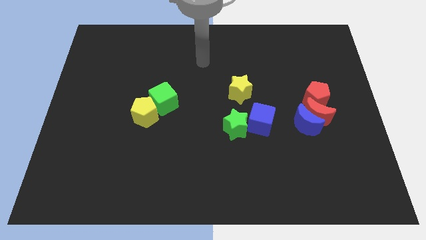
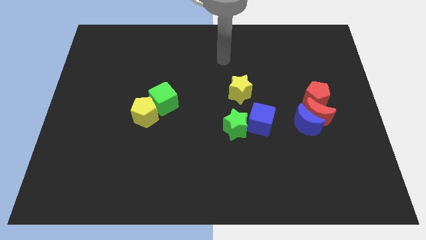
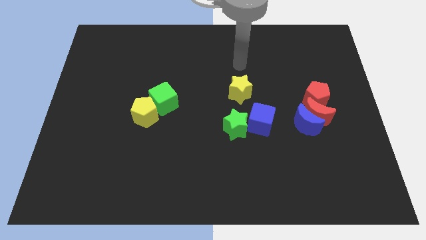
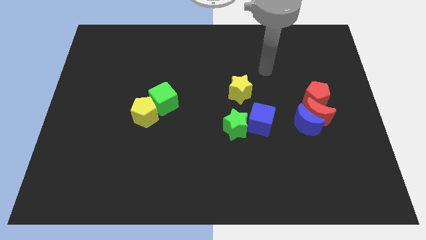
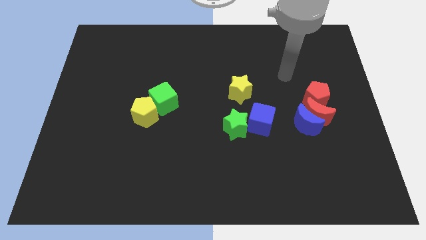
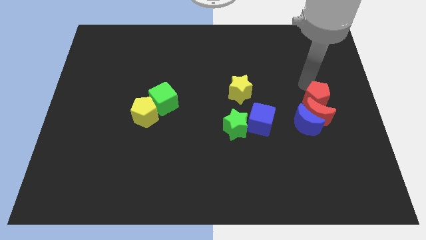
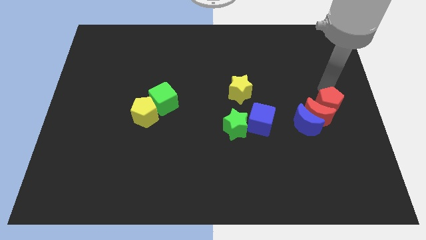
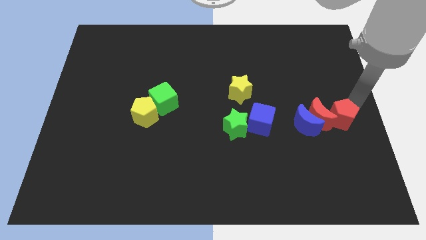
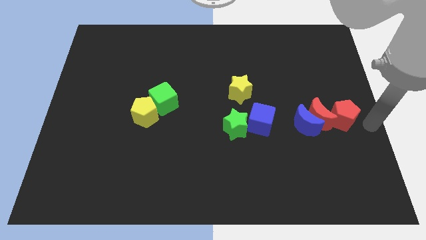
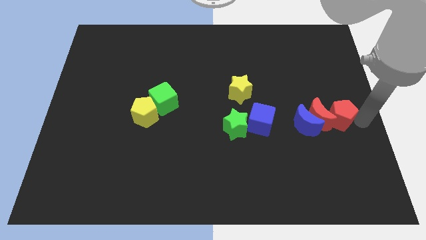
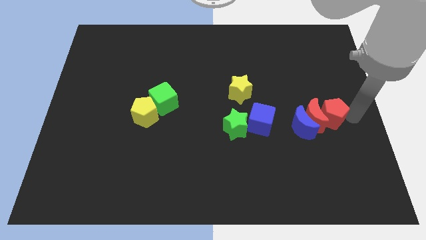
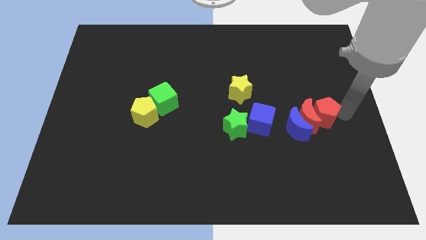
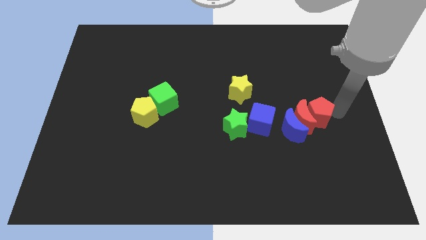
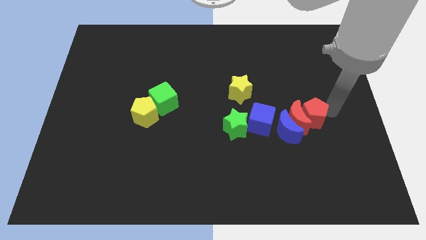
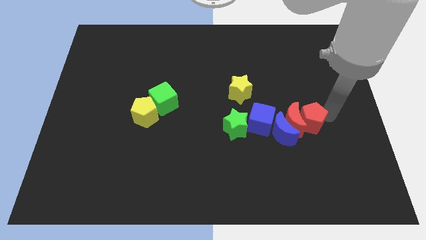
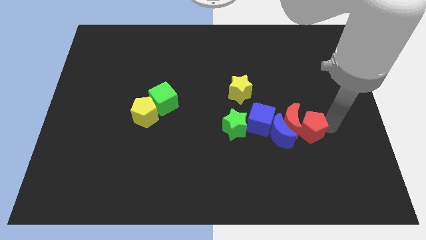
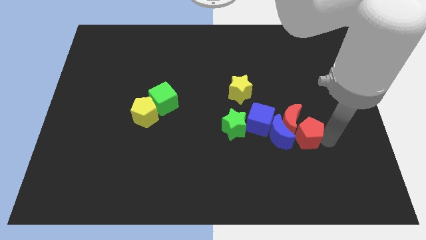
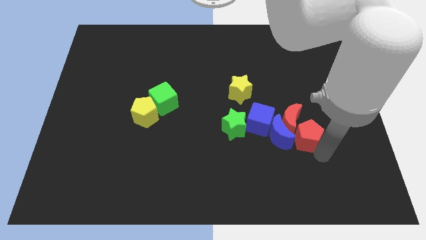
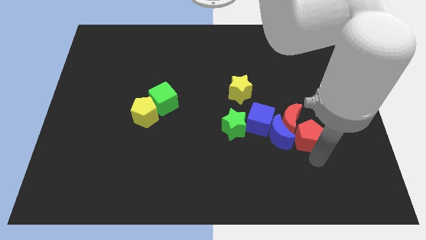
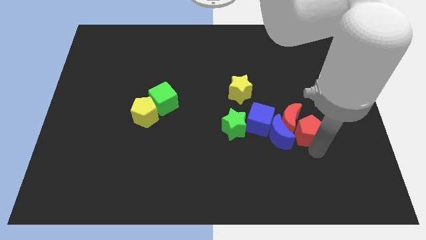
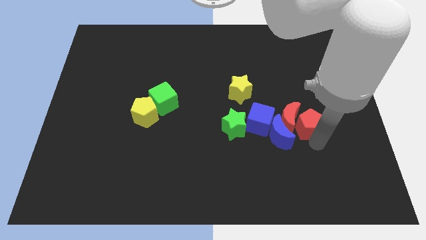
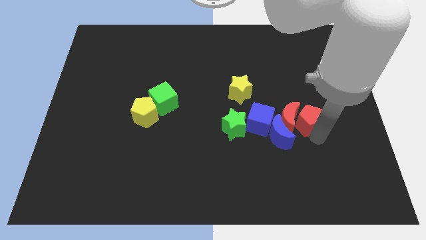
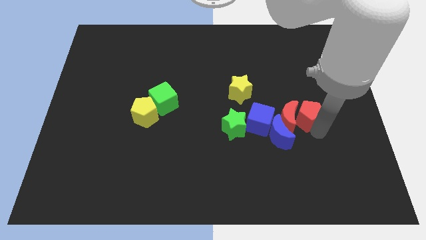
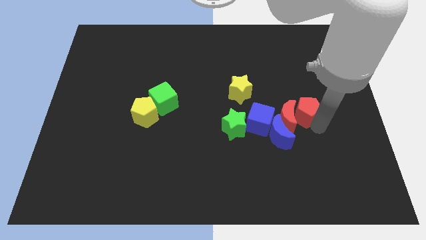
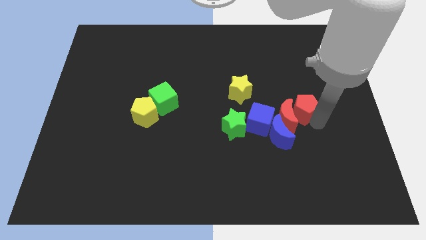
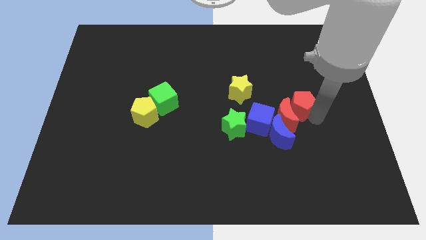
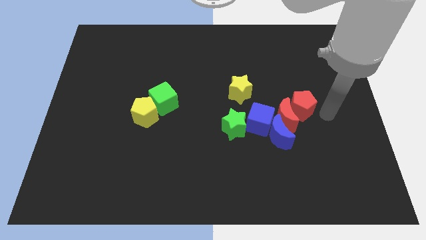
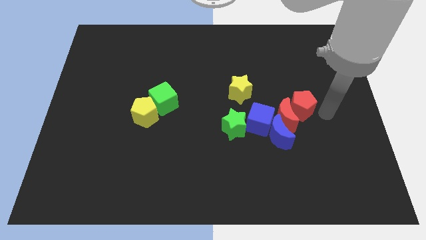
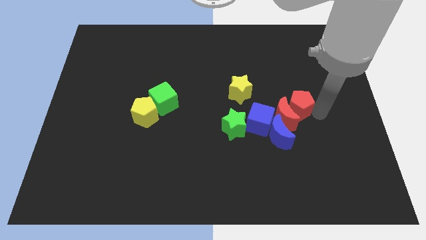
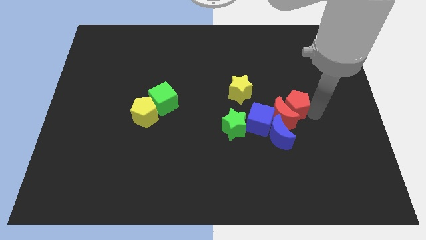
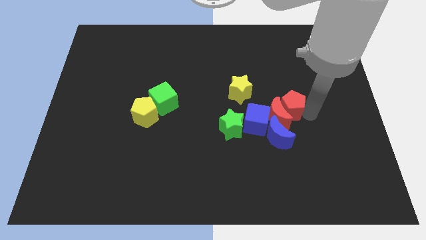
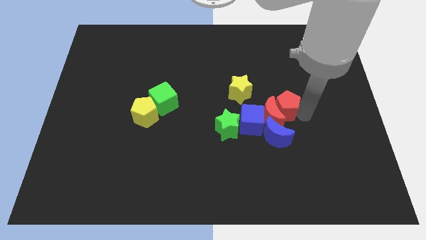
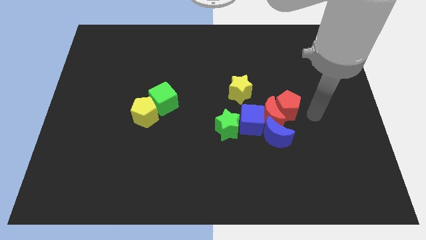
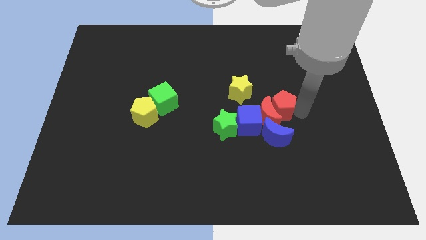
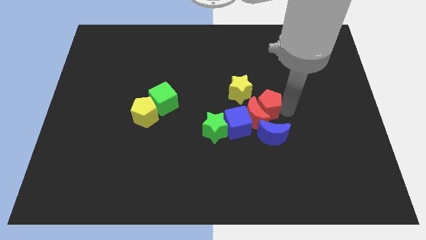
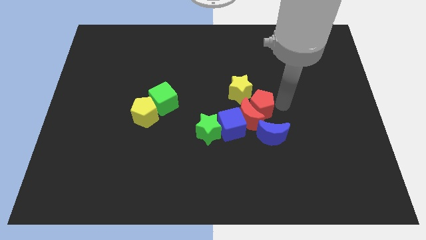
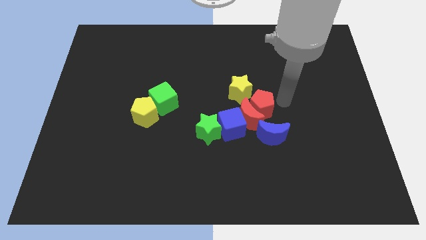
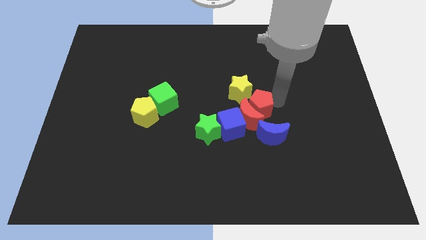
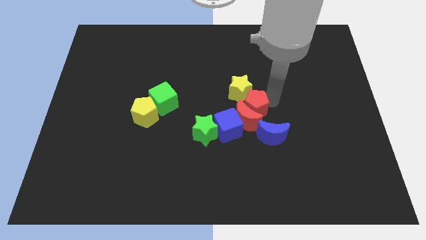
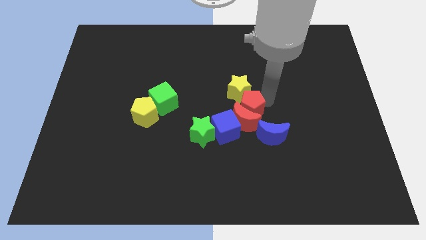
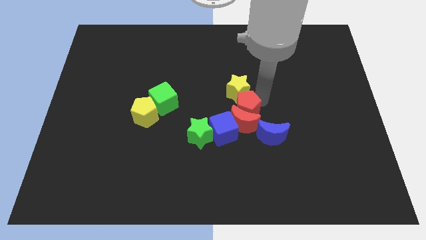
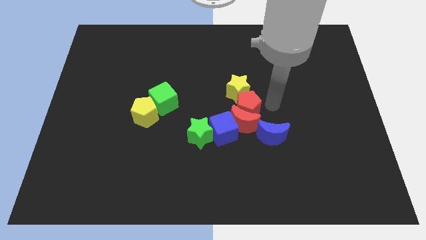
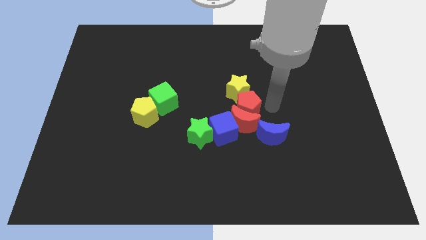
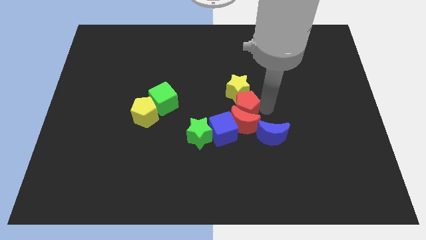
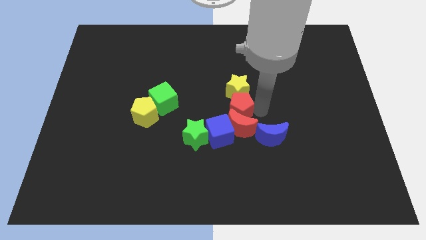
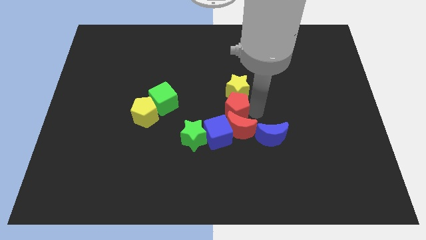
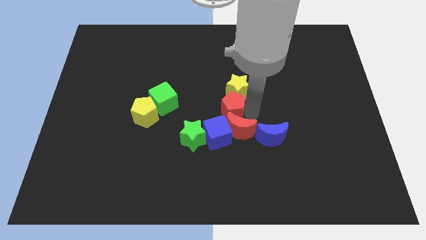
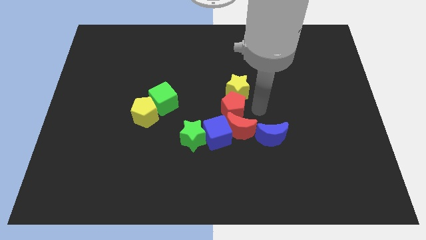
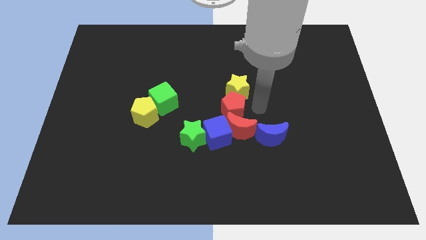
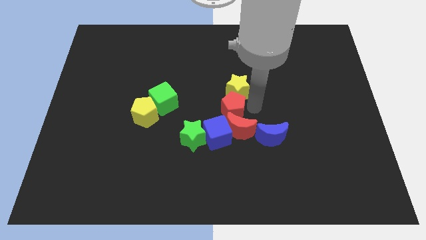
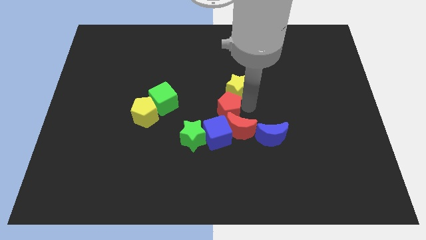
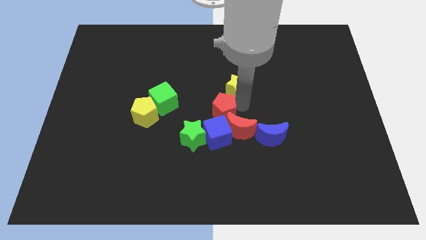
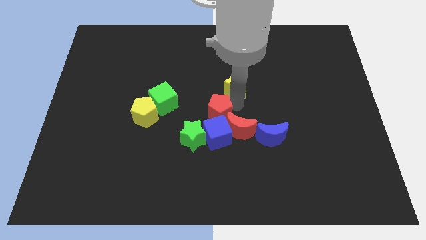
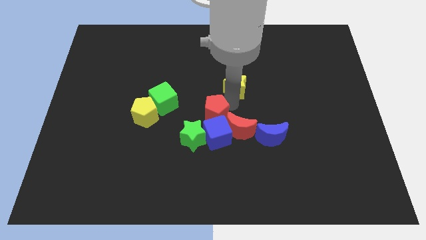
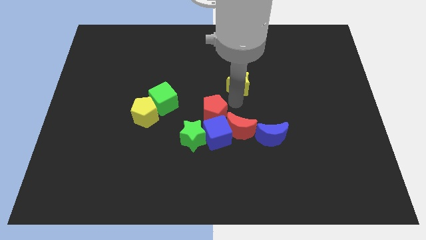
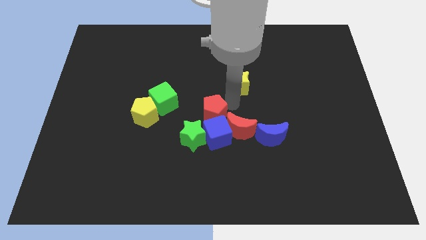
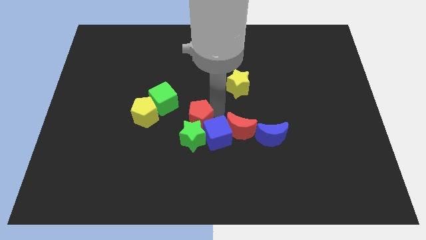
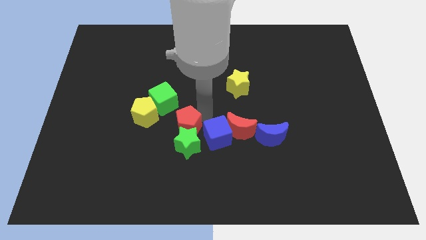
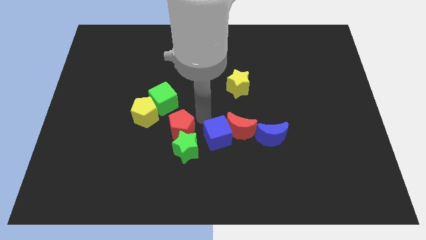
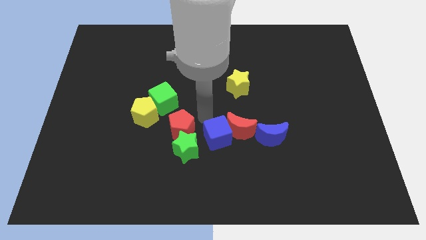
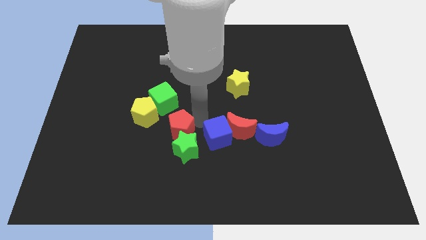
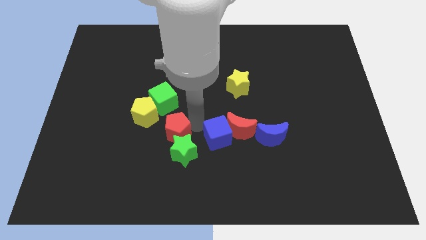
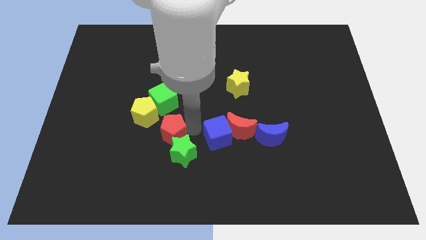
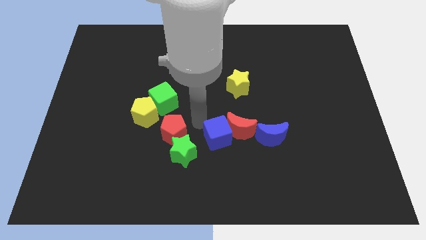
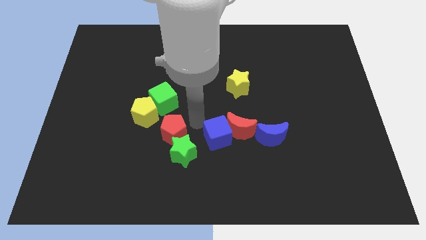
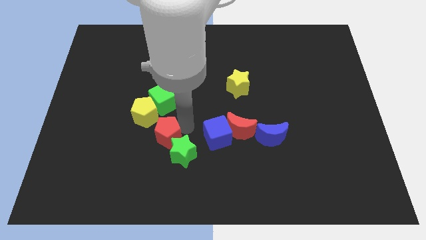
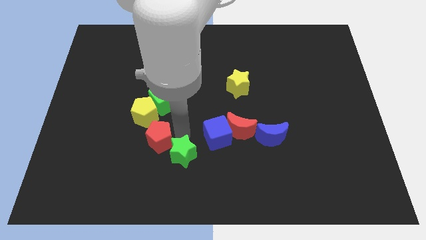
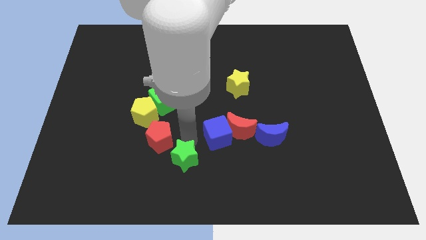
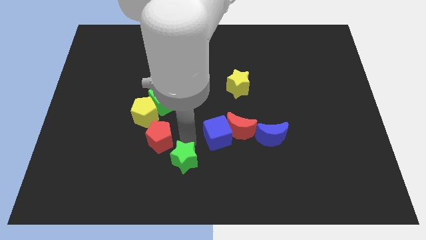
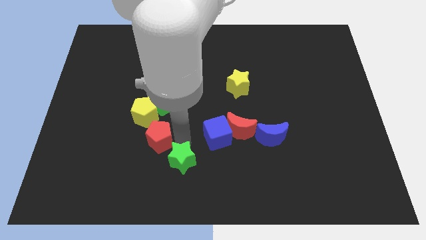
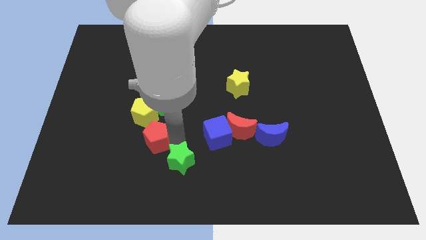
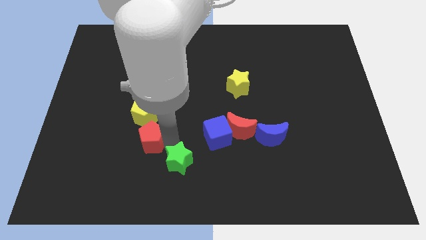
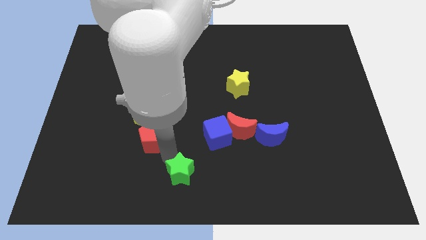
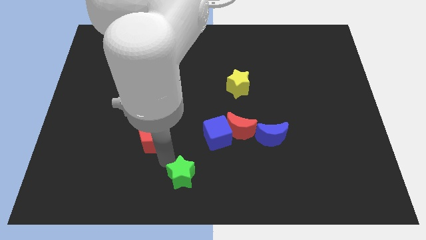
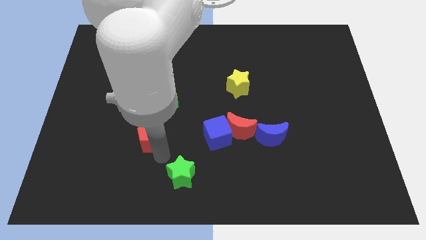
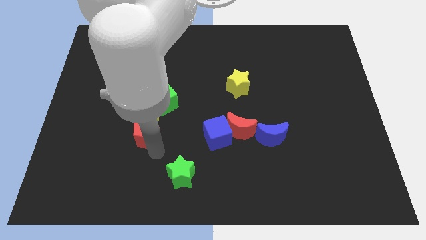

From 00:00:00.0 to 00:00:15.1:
put the red pentagon diagonally down and to the left of the green cube

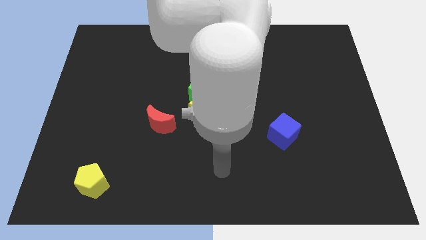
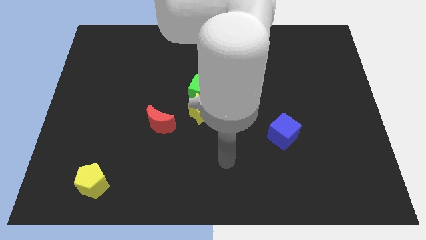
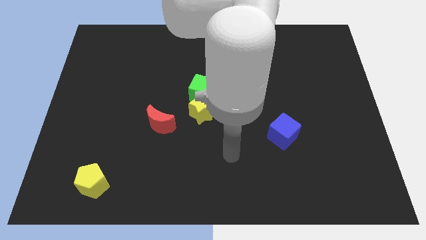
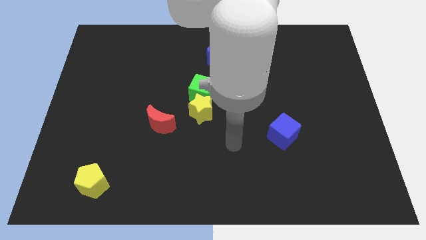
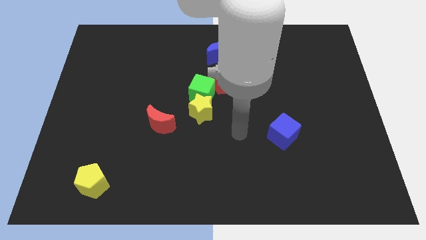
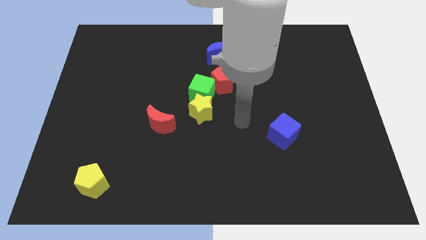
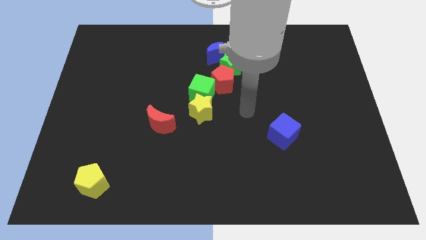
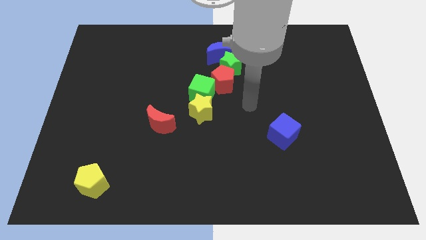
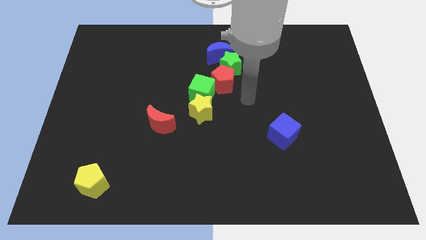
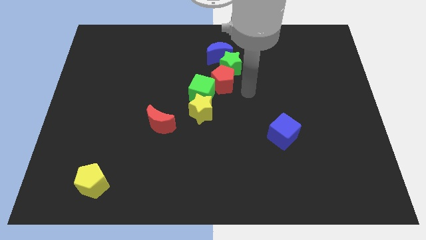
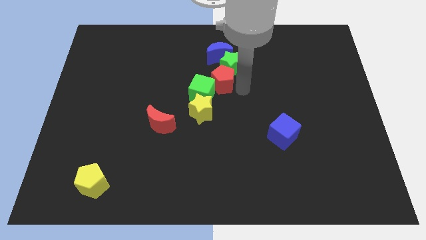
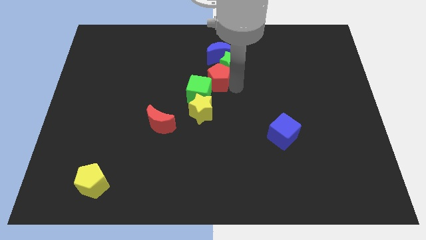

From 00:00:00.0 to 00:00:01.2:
put the red pentagon left of the green star
